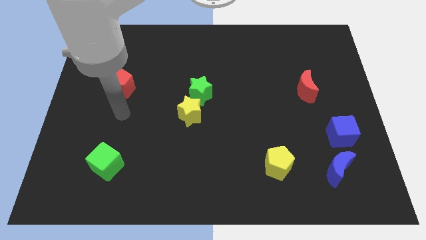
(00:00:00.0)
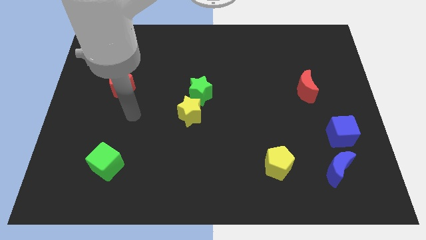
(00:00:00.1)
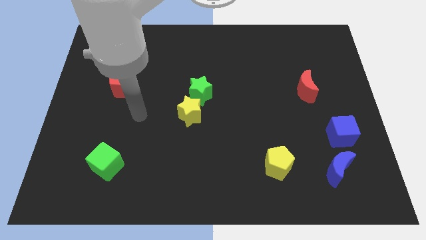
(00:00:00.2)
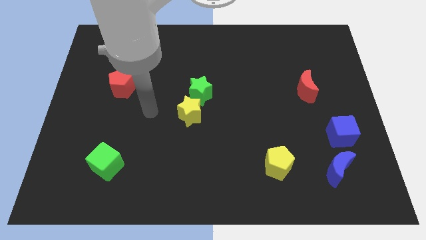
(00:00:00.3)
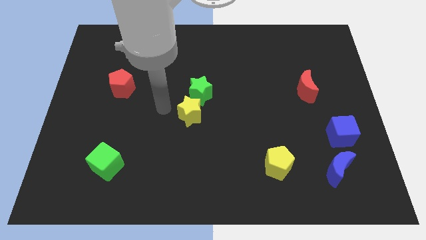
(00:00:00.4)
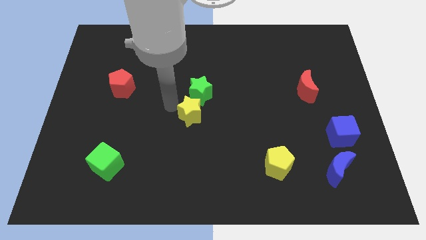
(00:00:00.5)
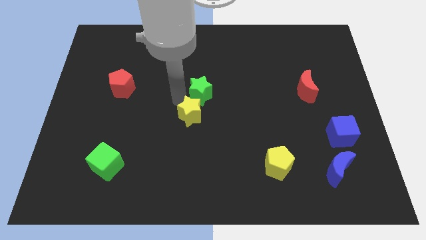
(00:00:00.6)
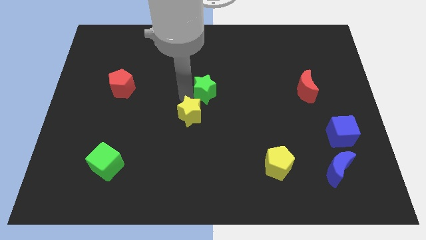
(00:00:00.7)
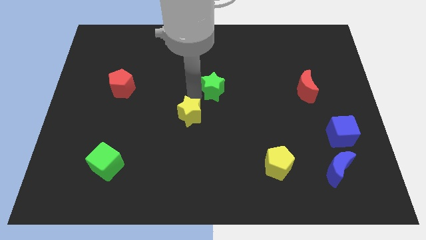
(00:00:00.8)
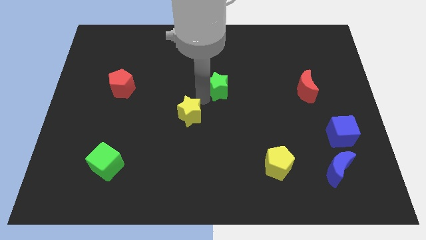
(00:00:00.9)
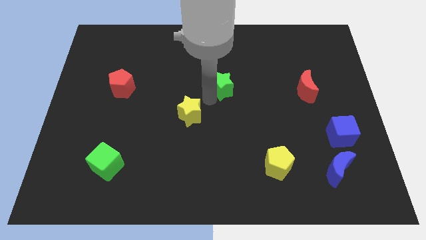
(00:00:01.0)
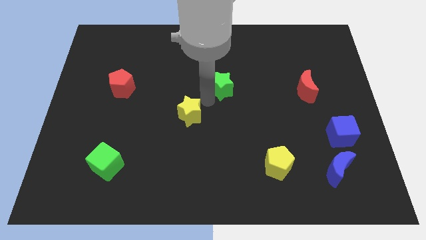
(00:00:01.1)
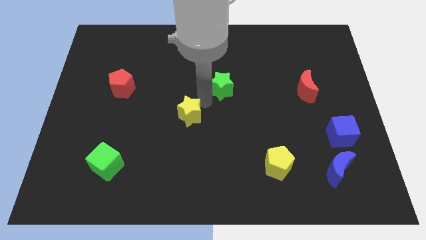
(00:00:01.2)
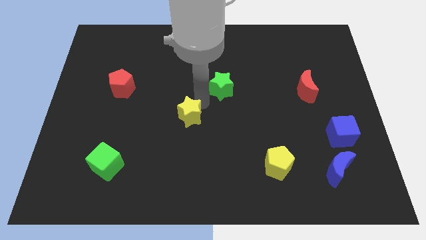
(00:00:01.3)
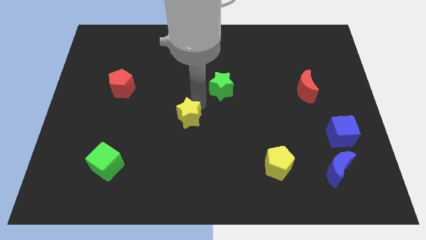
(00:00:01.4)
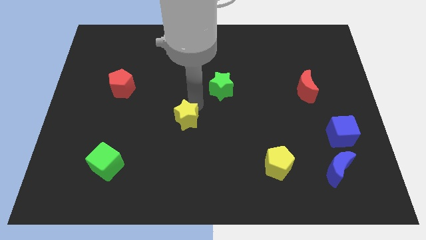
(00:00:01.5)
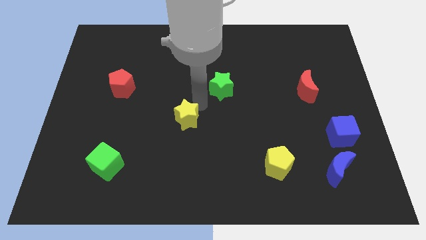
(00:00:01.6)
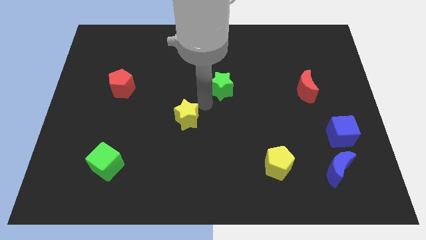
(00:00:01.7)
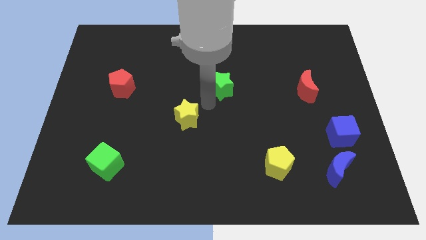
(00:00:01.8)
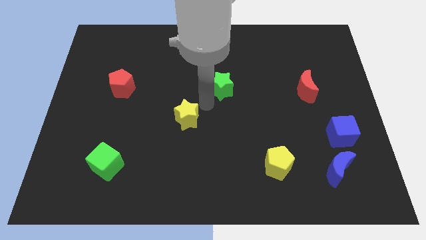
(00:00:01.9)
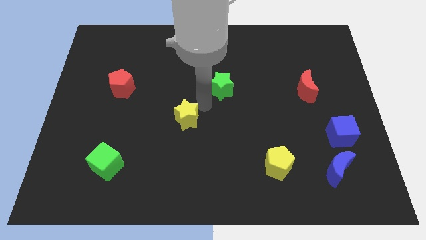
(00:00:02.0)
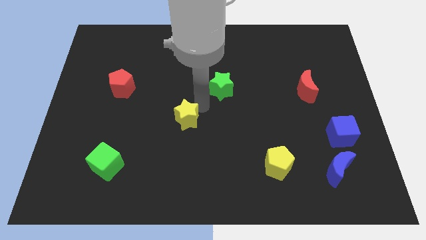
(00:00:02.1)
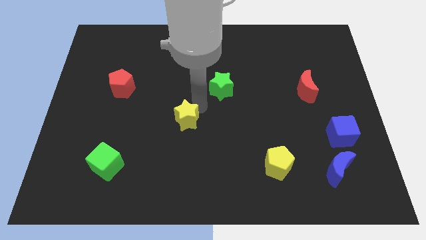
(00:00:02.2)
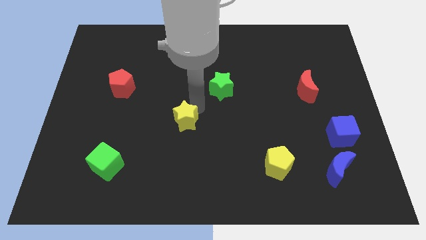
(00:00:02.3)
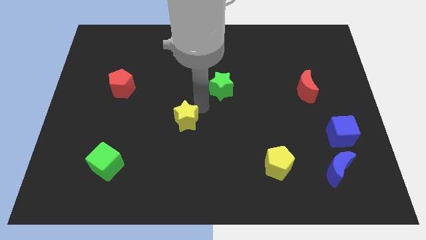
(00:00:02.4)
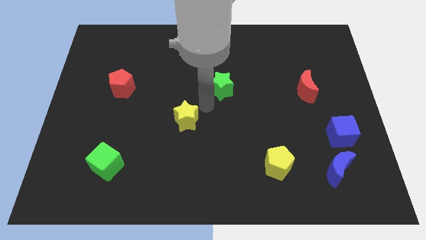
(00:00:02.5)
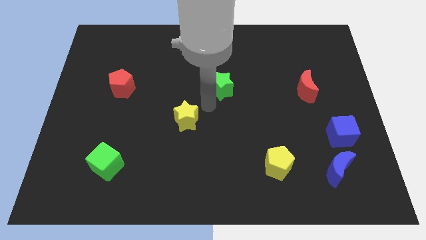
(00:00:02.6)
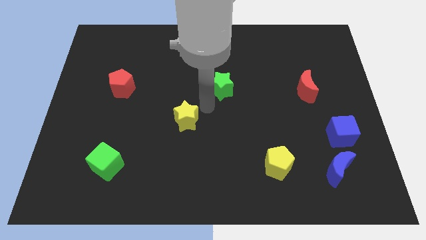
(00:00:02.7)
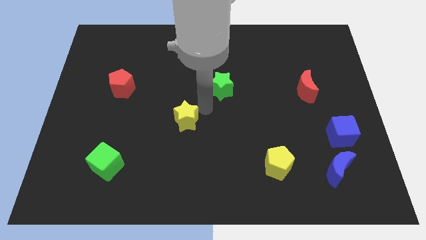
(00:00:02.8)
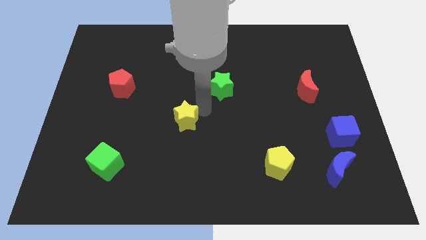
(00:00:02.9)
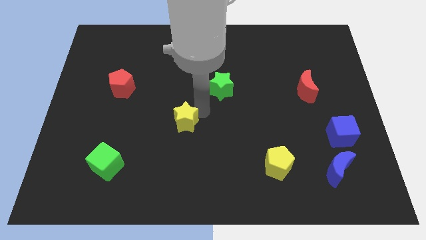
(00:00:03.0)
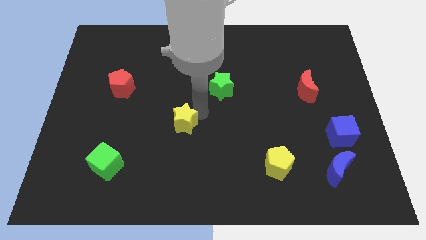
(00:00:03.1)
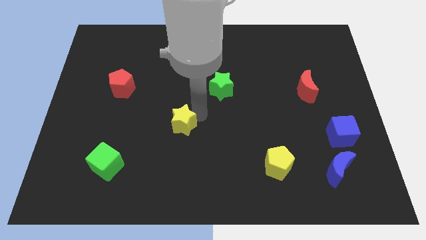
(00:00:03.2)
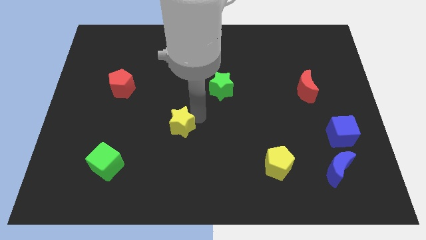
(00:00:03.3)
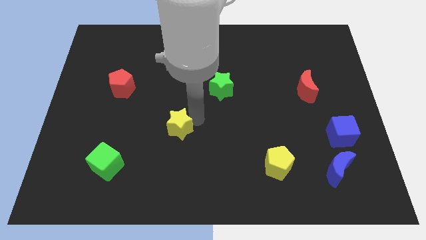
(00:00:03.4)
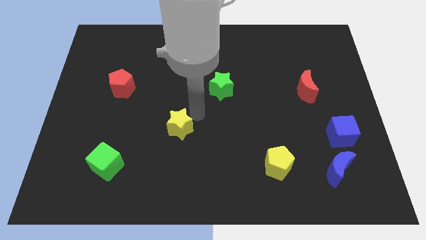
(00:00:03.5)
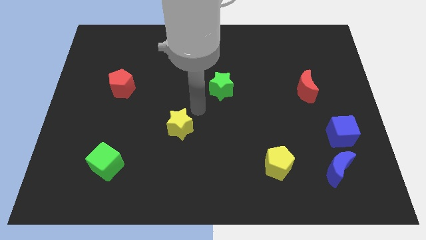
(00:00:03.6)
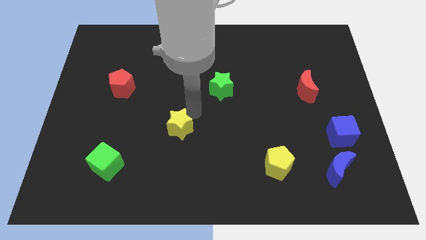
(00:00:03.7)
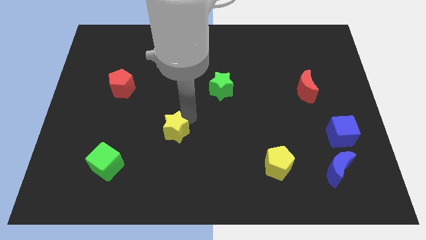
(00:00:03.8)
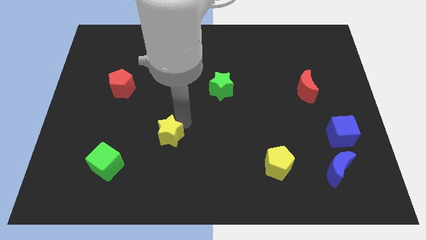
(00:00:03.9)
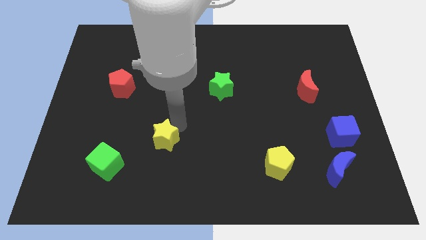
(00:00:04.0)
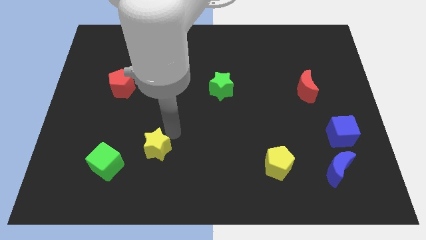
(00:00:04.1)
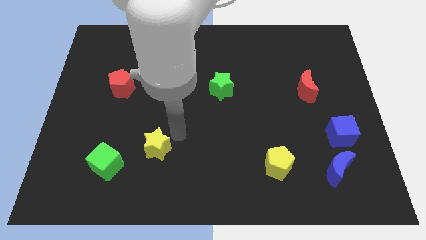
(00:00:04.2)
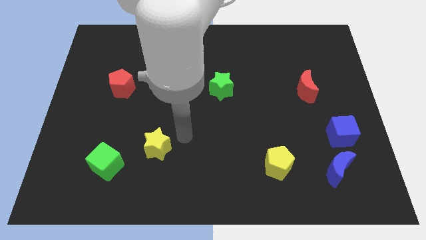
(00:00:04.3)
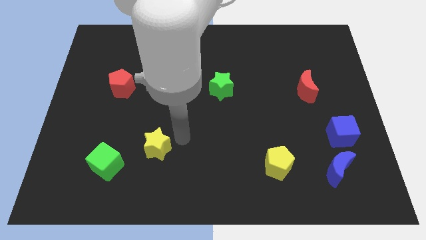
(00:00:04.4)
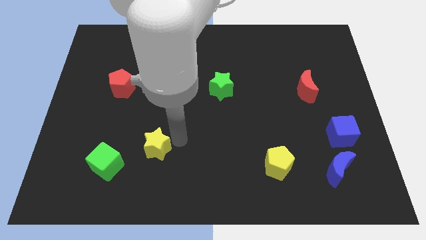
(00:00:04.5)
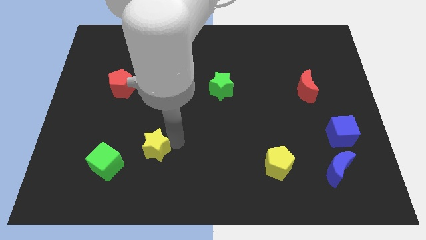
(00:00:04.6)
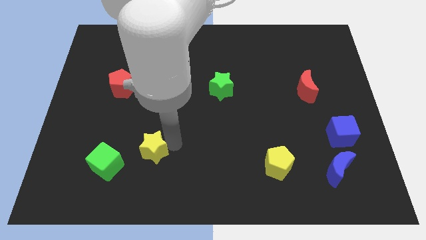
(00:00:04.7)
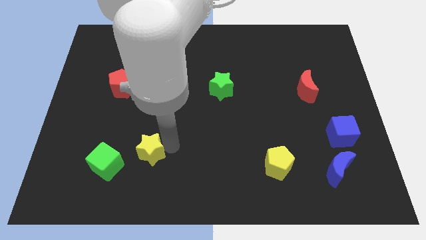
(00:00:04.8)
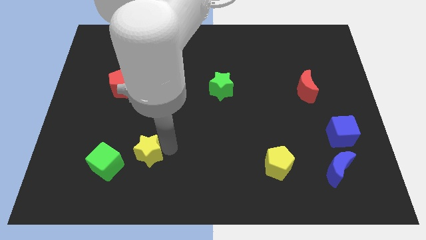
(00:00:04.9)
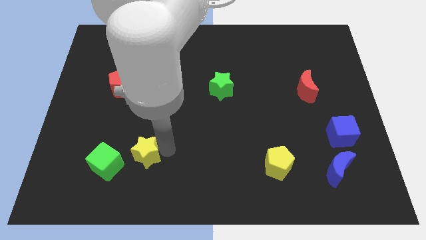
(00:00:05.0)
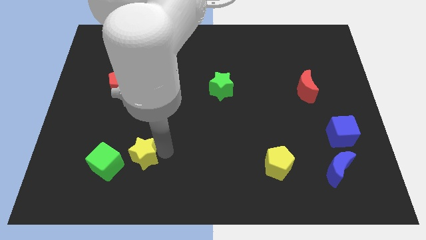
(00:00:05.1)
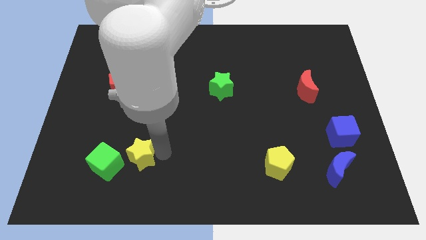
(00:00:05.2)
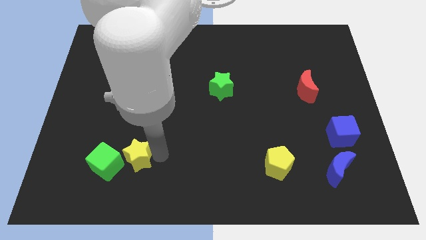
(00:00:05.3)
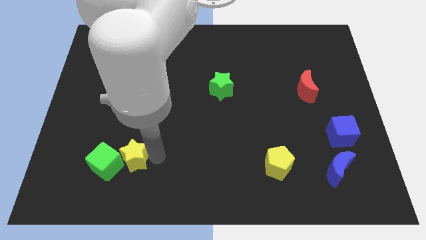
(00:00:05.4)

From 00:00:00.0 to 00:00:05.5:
move the yellow star close to the green cube

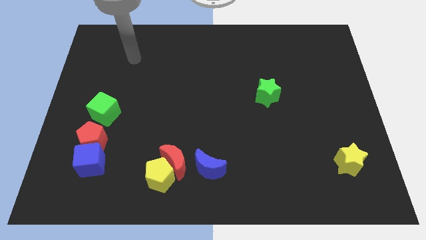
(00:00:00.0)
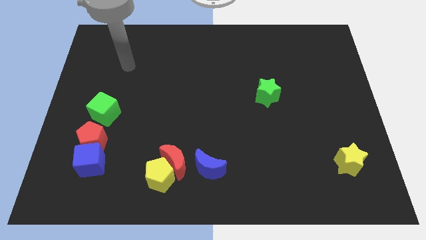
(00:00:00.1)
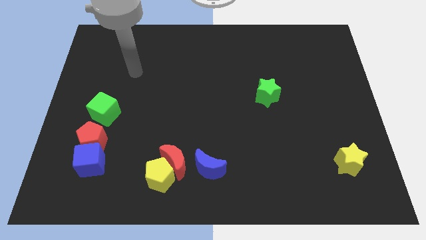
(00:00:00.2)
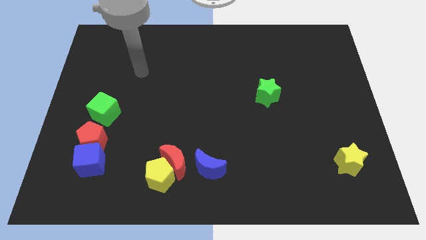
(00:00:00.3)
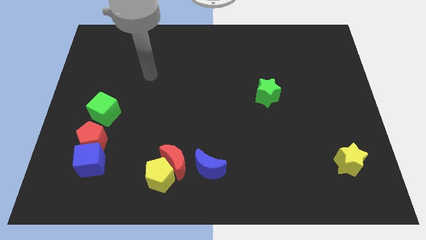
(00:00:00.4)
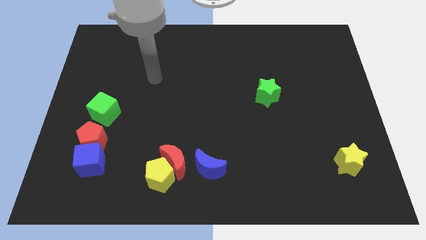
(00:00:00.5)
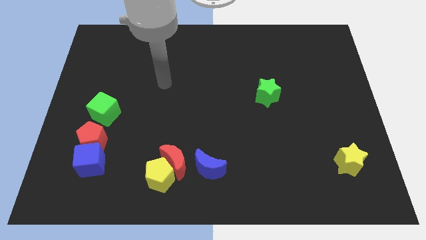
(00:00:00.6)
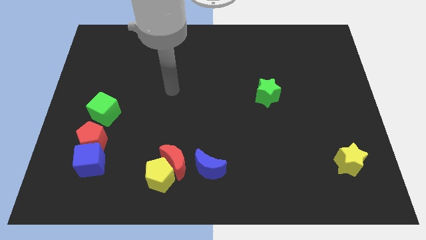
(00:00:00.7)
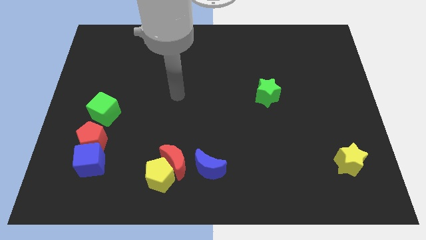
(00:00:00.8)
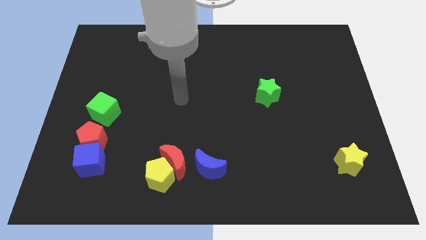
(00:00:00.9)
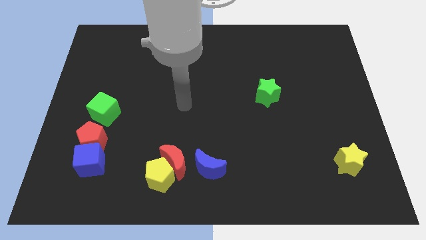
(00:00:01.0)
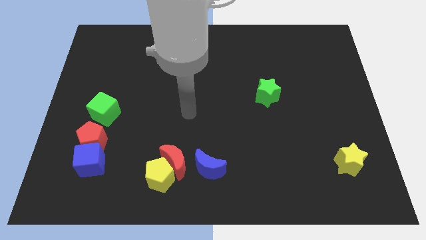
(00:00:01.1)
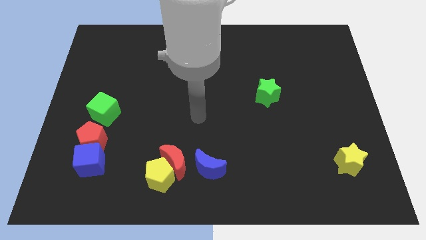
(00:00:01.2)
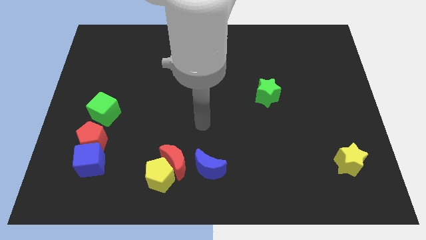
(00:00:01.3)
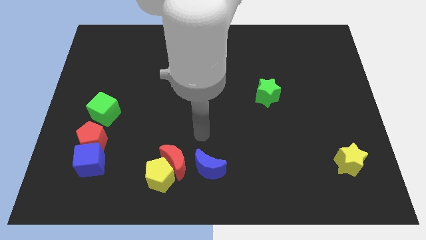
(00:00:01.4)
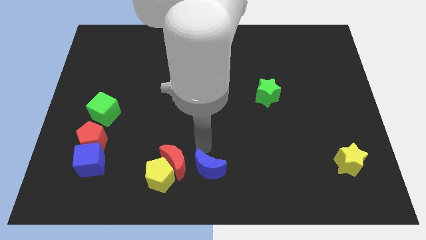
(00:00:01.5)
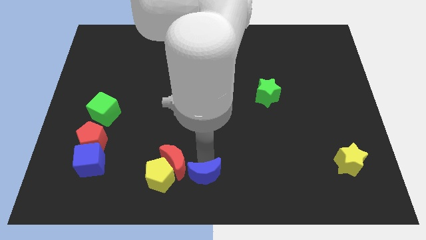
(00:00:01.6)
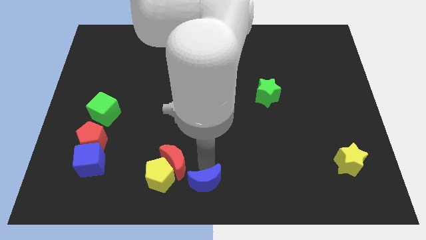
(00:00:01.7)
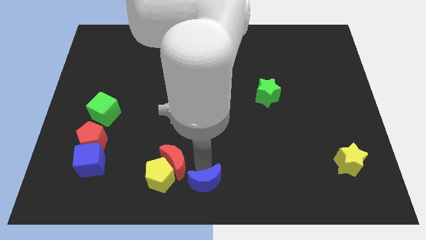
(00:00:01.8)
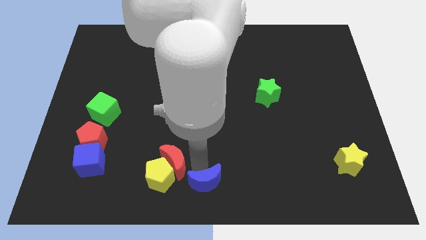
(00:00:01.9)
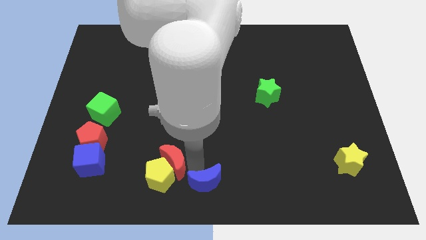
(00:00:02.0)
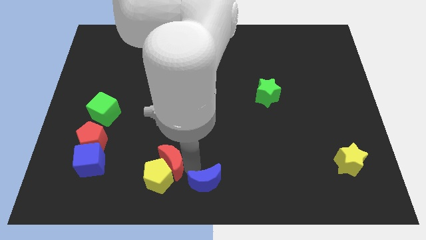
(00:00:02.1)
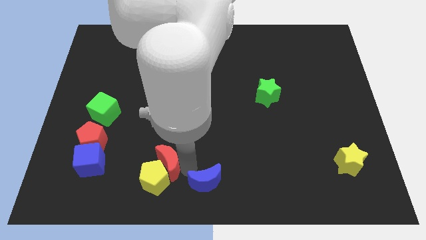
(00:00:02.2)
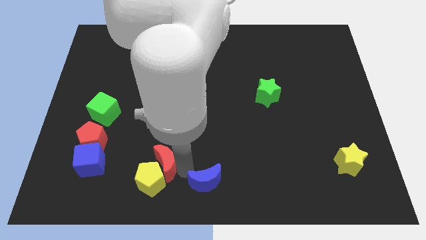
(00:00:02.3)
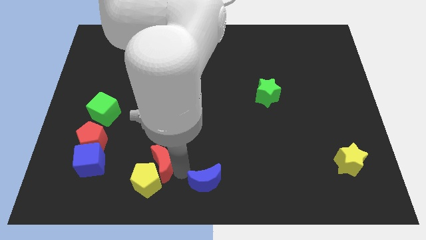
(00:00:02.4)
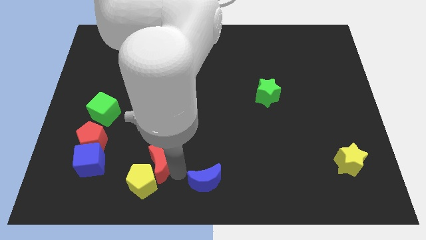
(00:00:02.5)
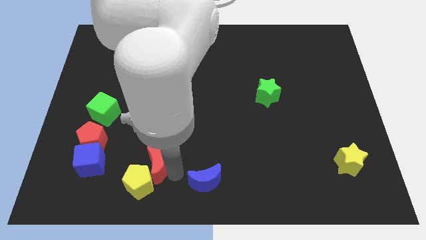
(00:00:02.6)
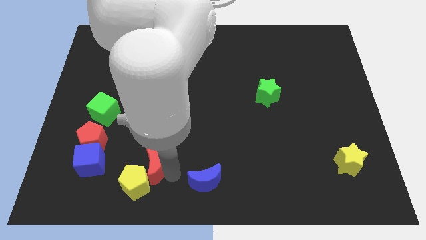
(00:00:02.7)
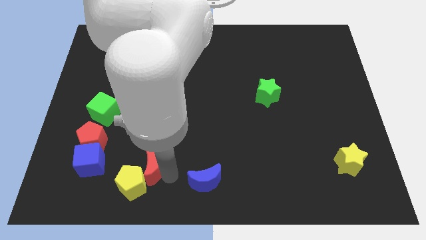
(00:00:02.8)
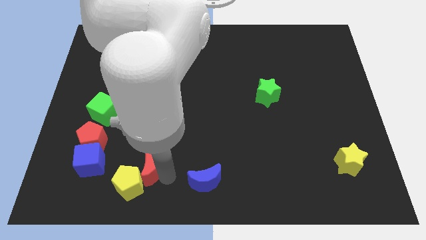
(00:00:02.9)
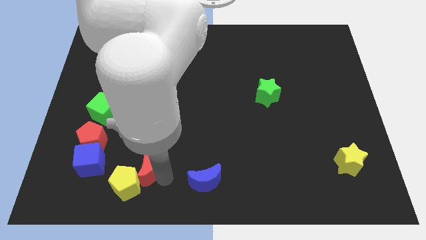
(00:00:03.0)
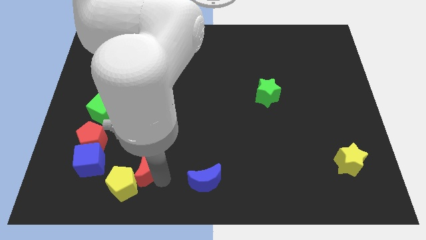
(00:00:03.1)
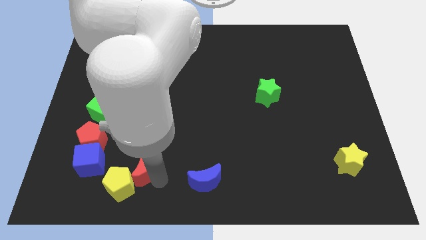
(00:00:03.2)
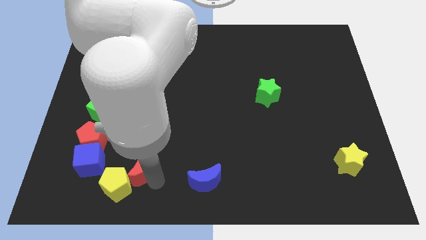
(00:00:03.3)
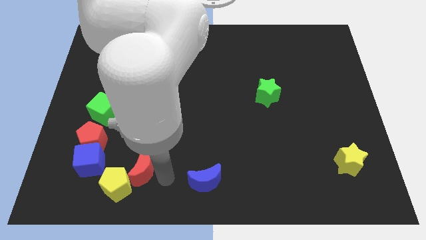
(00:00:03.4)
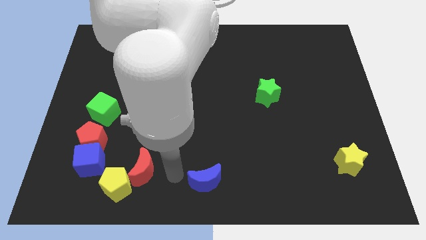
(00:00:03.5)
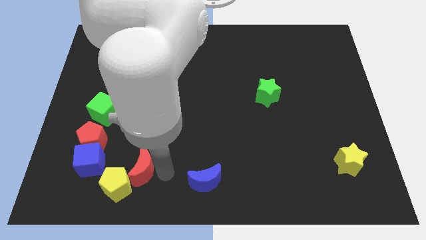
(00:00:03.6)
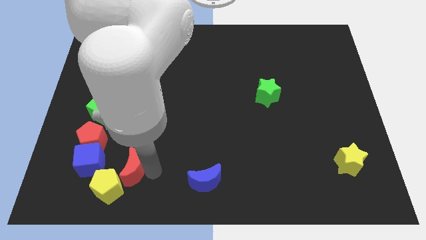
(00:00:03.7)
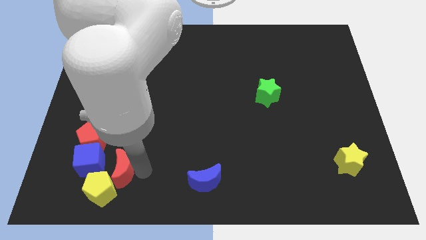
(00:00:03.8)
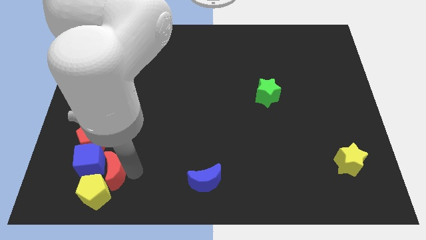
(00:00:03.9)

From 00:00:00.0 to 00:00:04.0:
put the red moon next to the blue cube
